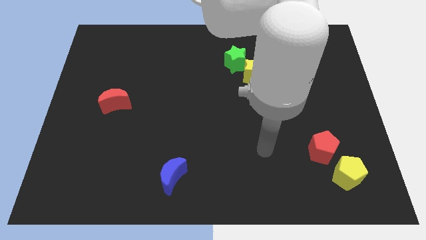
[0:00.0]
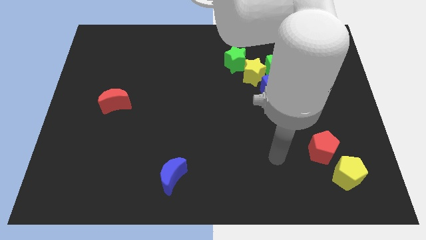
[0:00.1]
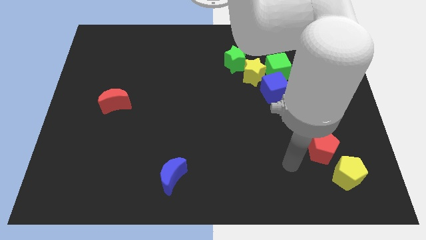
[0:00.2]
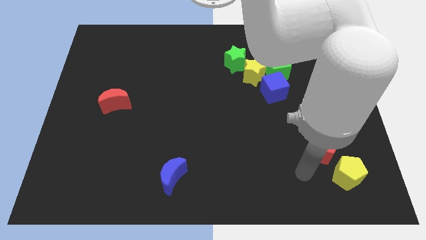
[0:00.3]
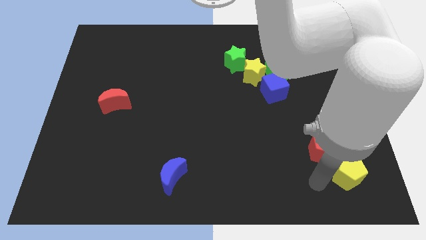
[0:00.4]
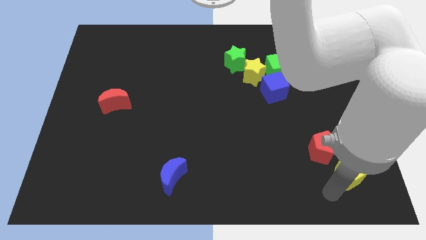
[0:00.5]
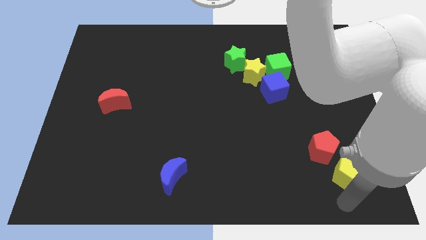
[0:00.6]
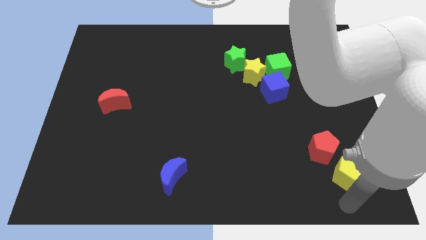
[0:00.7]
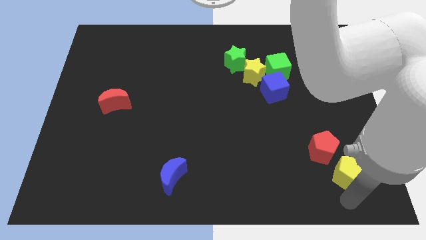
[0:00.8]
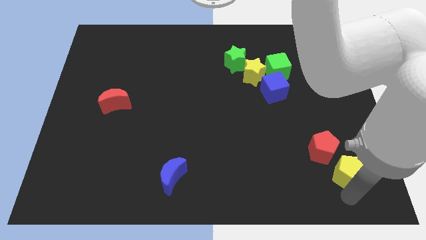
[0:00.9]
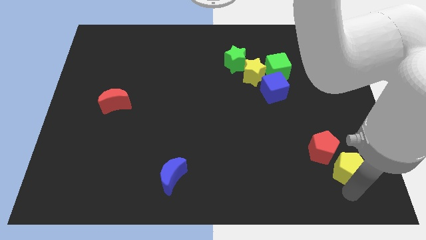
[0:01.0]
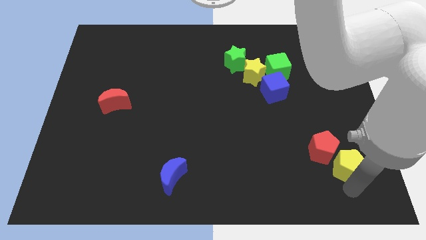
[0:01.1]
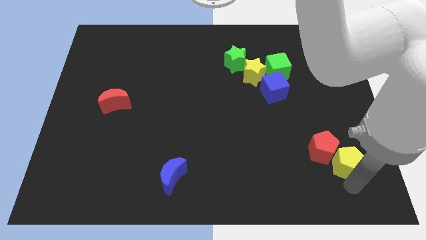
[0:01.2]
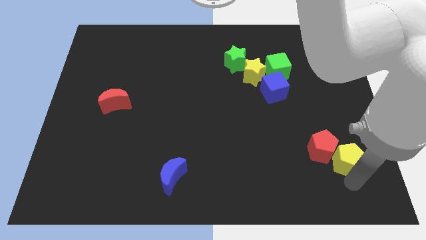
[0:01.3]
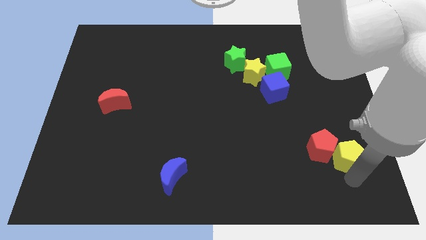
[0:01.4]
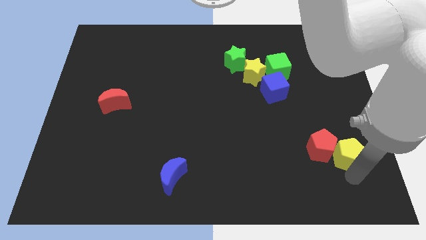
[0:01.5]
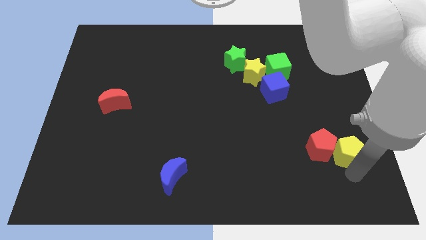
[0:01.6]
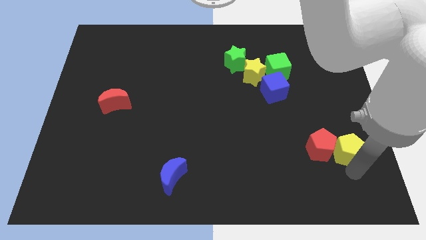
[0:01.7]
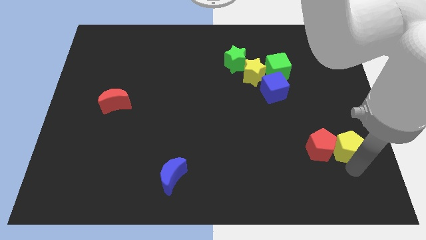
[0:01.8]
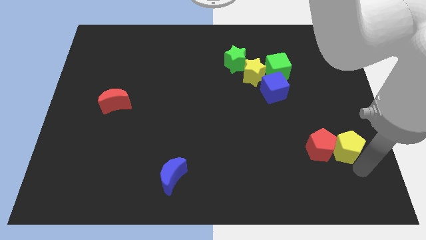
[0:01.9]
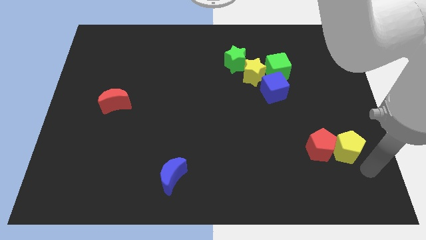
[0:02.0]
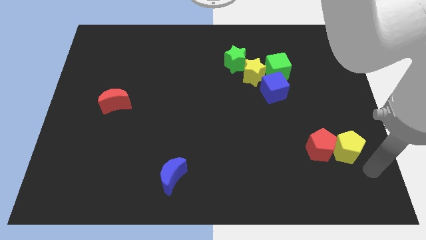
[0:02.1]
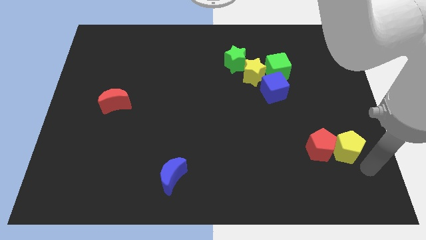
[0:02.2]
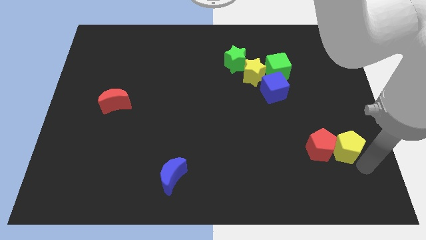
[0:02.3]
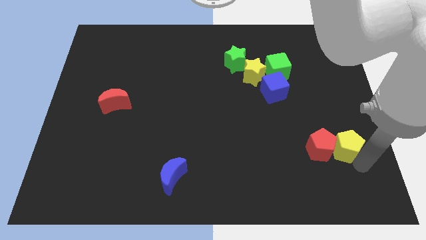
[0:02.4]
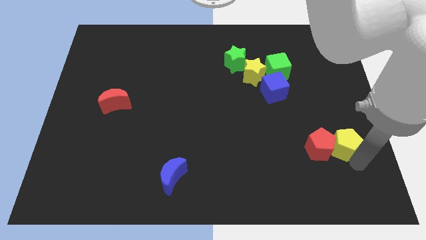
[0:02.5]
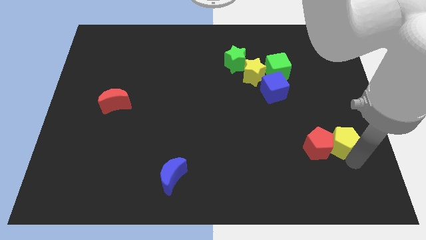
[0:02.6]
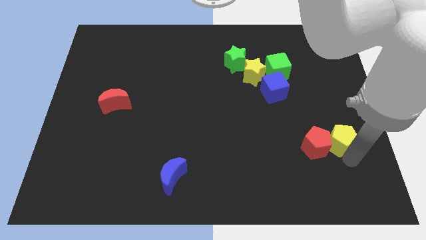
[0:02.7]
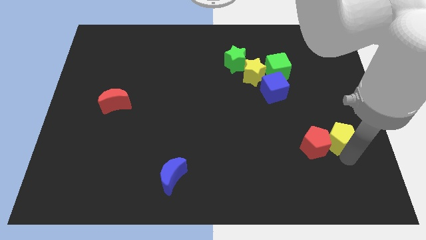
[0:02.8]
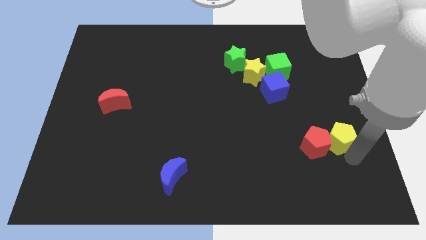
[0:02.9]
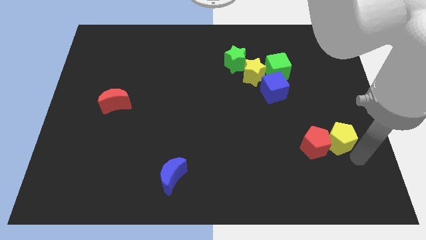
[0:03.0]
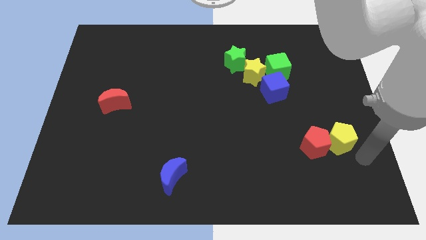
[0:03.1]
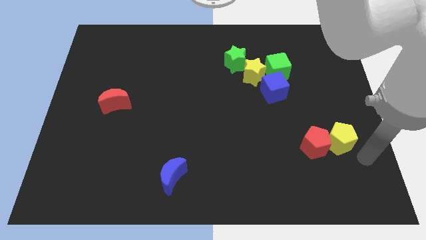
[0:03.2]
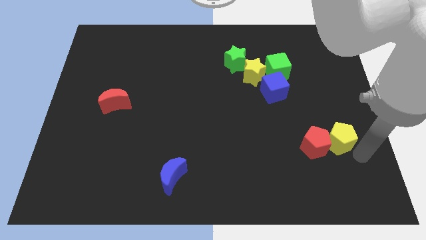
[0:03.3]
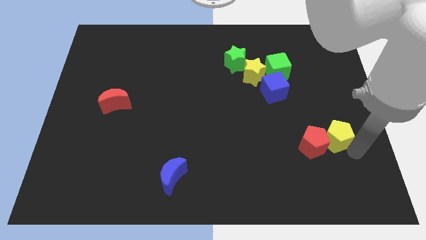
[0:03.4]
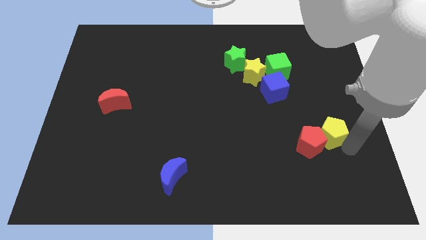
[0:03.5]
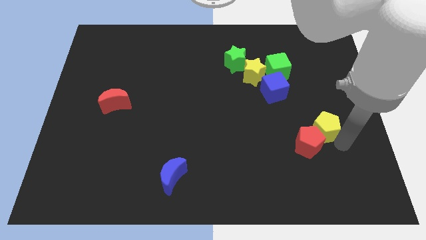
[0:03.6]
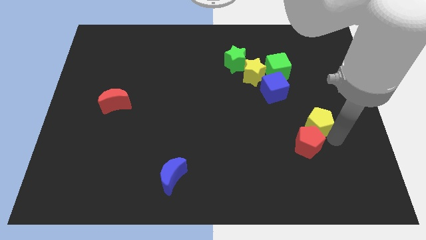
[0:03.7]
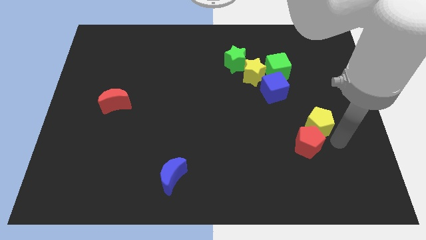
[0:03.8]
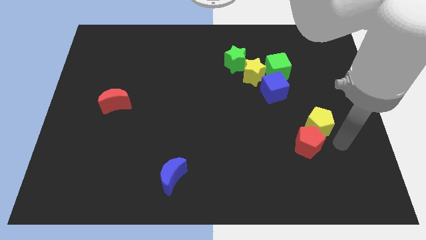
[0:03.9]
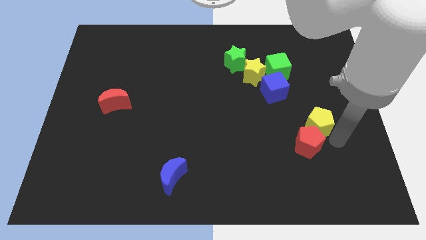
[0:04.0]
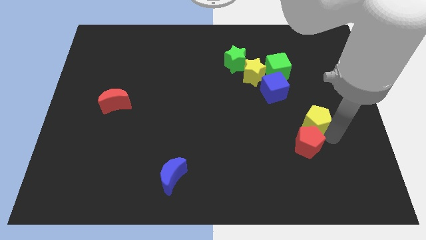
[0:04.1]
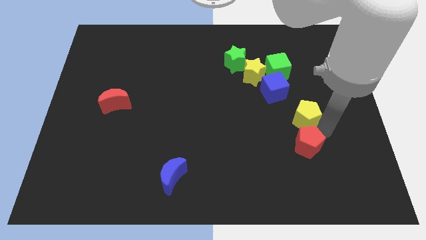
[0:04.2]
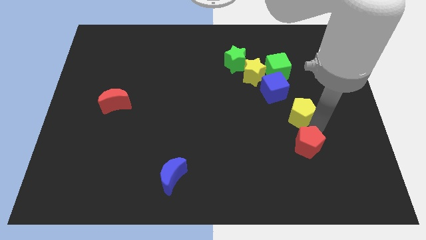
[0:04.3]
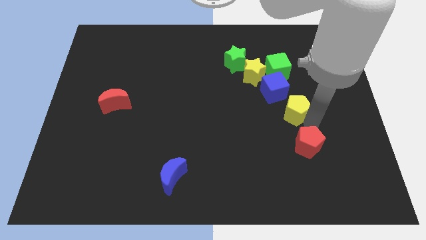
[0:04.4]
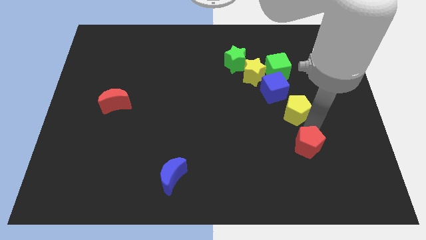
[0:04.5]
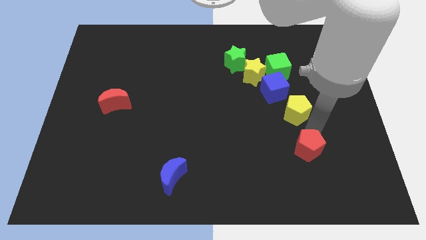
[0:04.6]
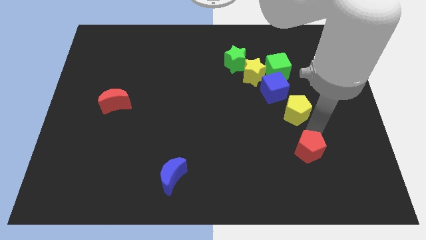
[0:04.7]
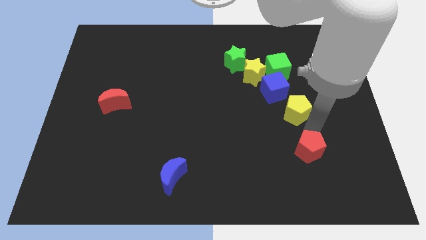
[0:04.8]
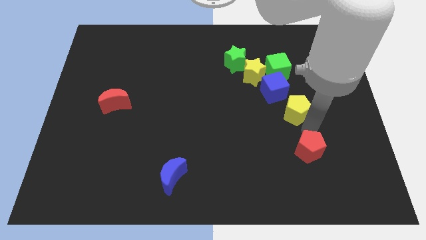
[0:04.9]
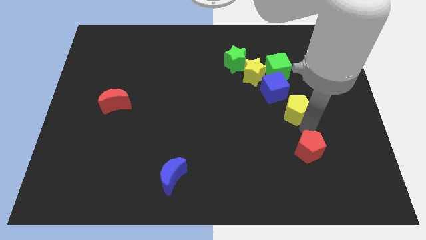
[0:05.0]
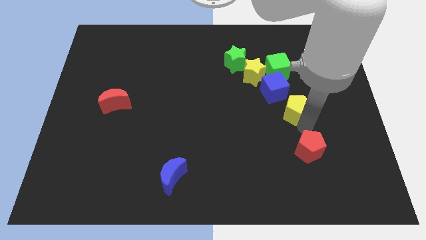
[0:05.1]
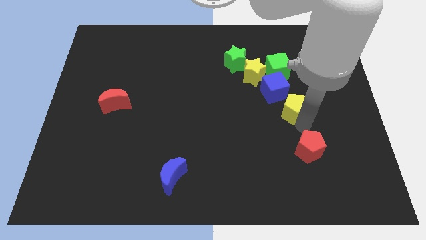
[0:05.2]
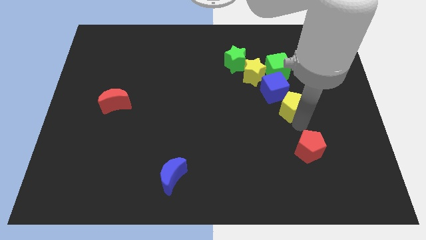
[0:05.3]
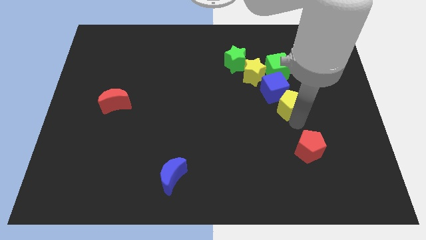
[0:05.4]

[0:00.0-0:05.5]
put the yellow pentagon towards the blue cube

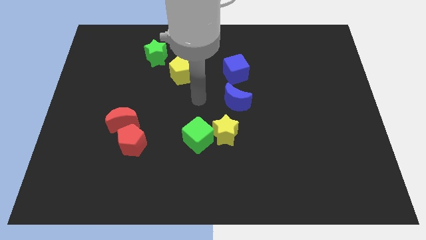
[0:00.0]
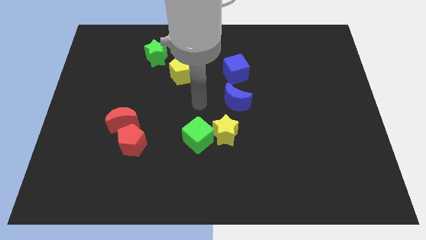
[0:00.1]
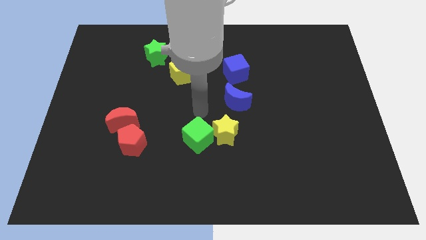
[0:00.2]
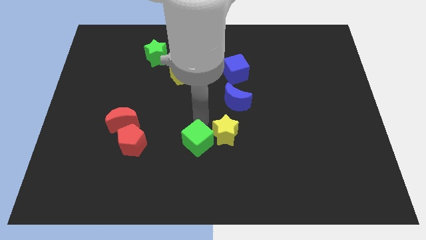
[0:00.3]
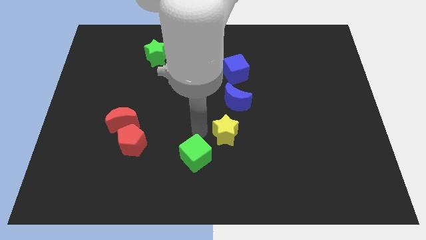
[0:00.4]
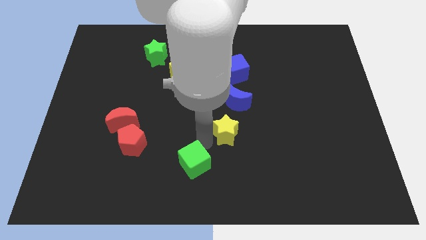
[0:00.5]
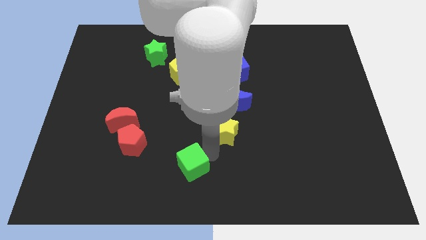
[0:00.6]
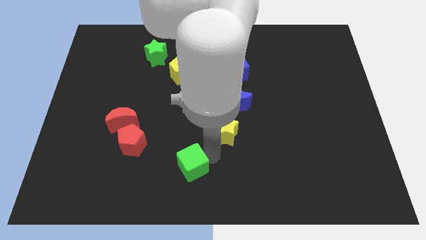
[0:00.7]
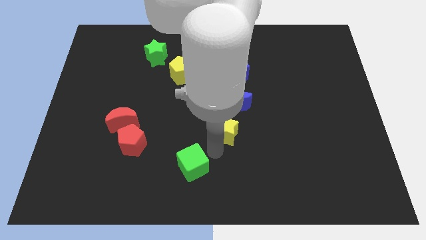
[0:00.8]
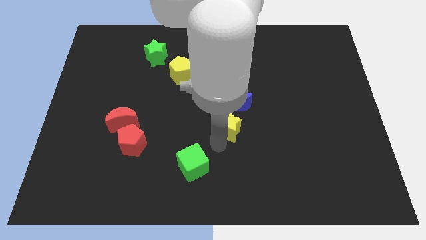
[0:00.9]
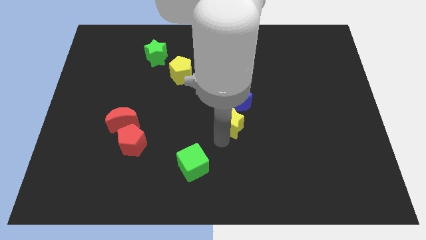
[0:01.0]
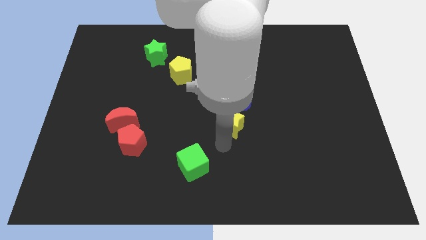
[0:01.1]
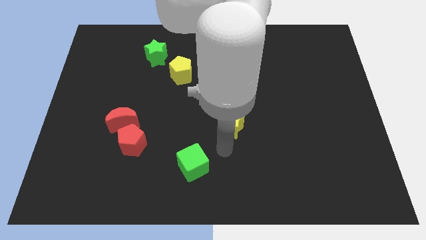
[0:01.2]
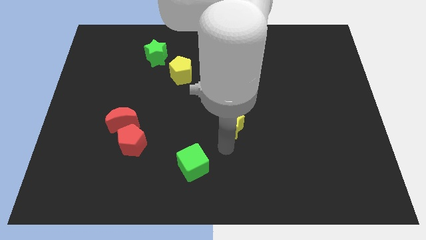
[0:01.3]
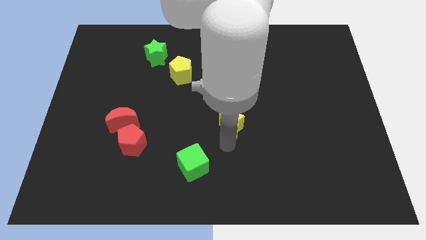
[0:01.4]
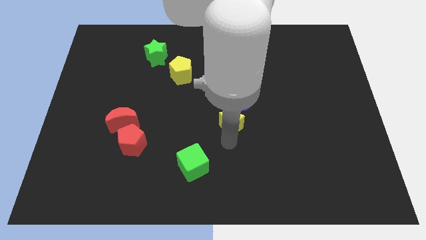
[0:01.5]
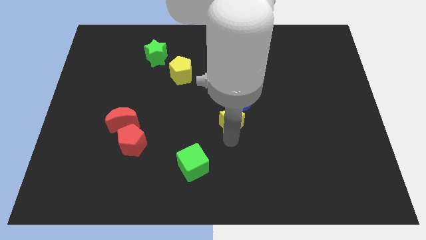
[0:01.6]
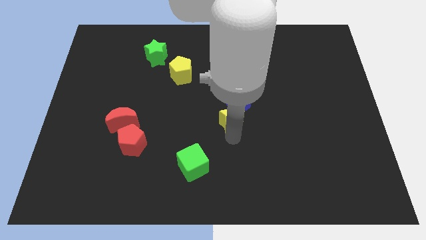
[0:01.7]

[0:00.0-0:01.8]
push the yellow star close to the blue moon
